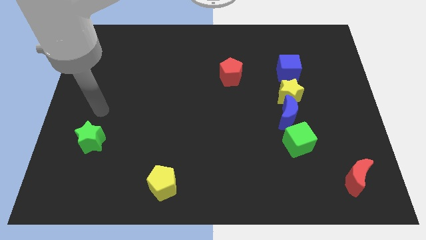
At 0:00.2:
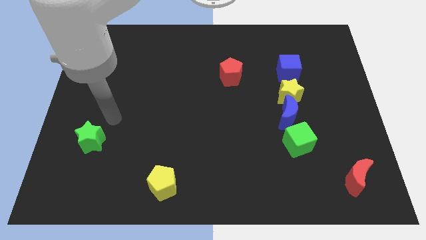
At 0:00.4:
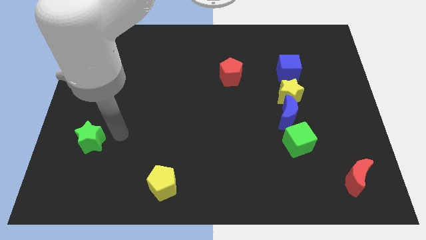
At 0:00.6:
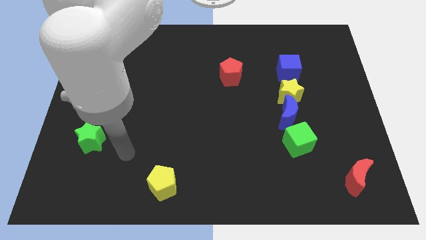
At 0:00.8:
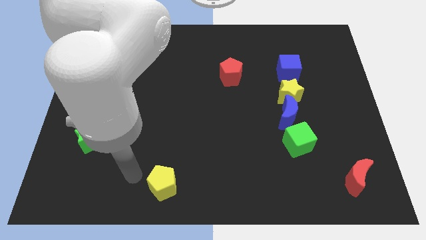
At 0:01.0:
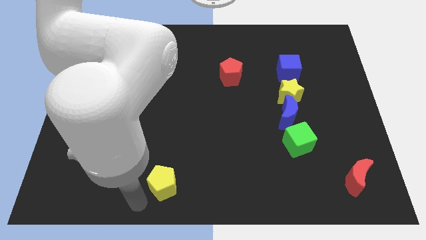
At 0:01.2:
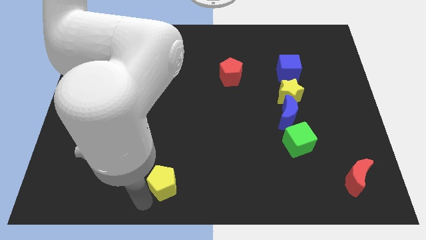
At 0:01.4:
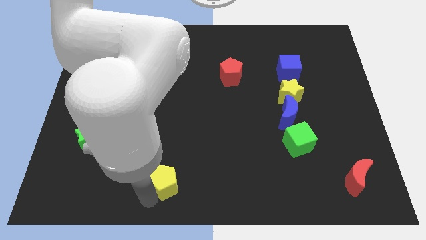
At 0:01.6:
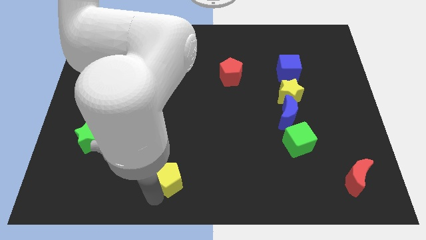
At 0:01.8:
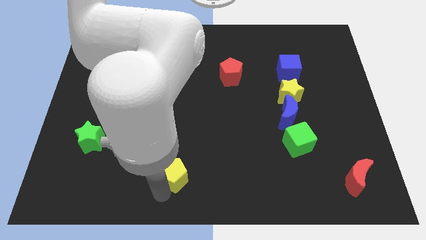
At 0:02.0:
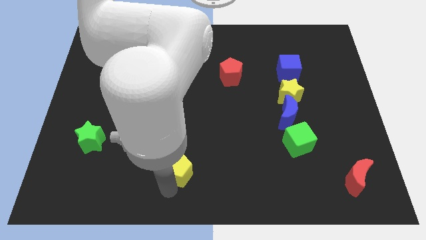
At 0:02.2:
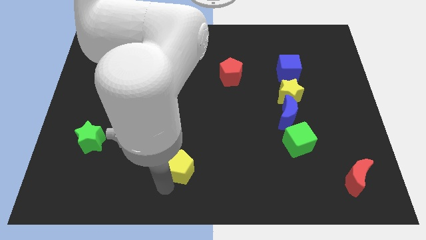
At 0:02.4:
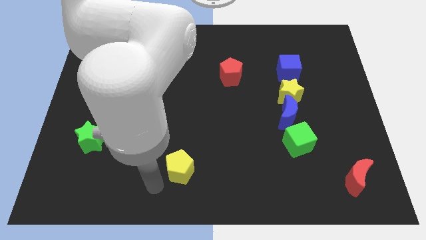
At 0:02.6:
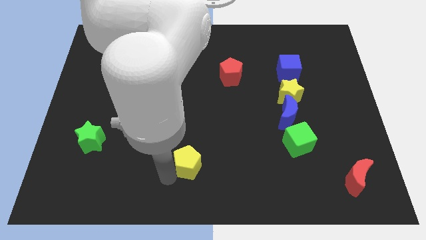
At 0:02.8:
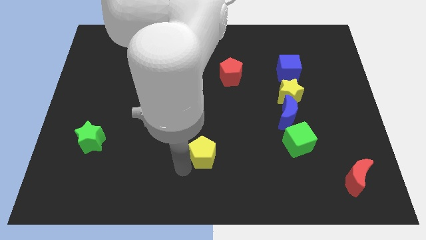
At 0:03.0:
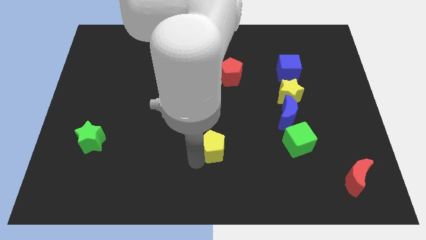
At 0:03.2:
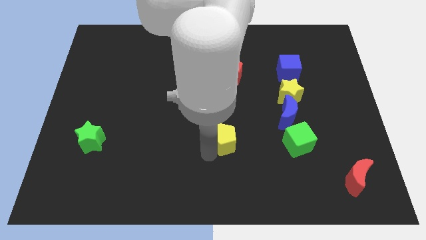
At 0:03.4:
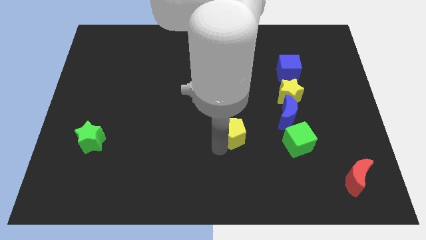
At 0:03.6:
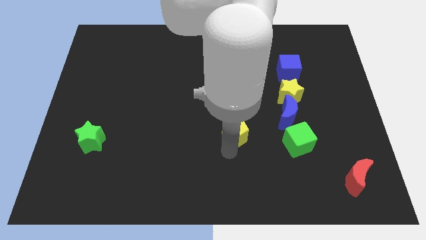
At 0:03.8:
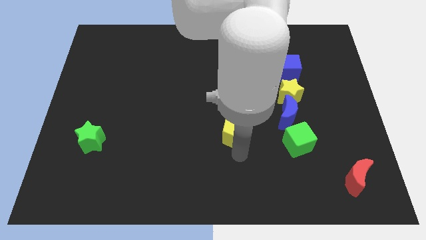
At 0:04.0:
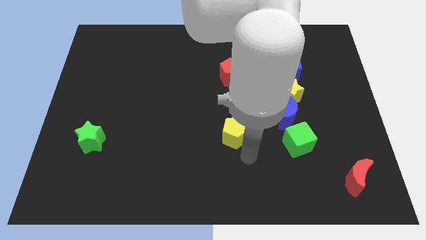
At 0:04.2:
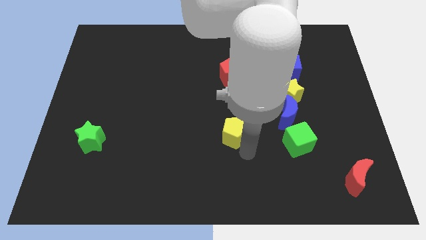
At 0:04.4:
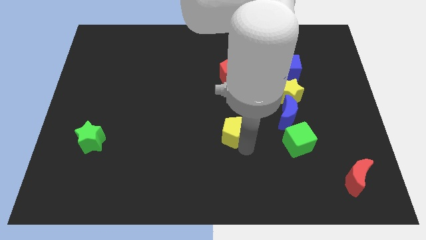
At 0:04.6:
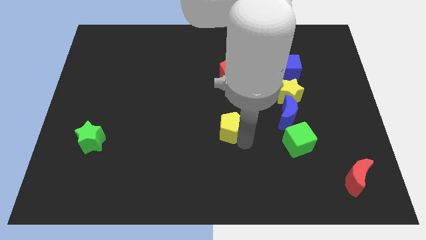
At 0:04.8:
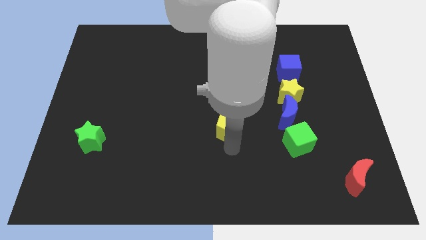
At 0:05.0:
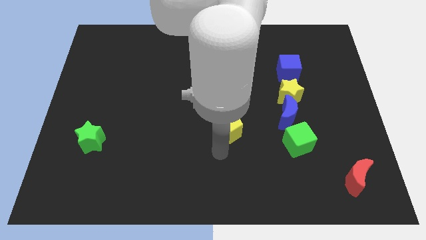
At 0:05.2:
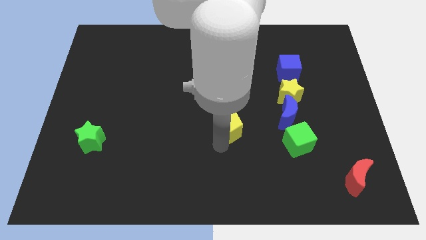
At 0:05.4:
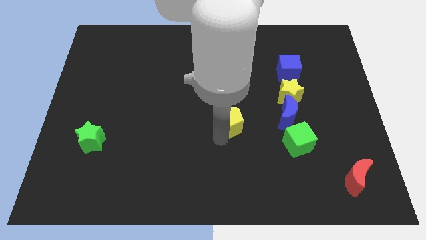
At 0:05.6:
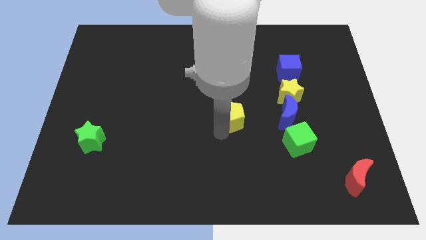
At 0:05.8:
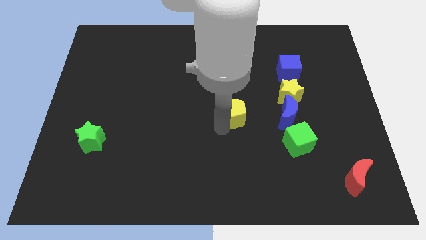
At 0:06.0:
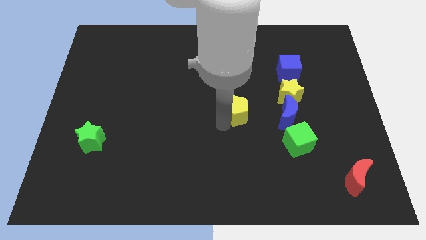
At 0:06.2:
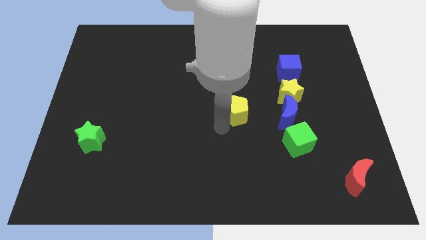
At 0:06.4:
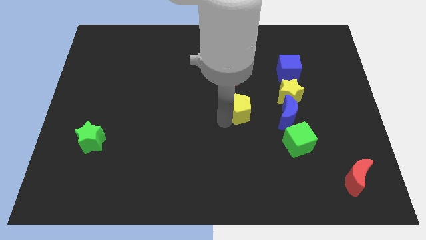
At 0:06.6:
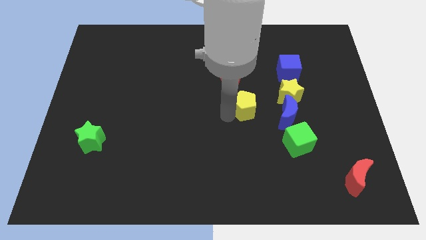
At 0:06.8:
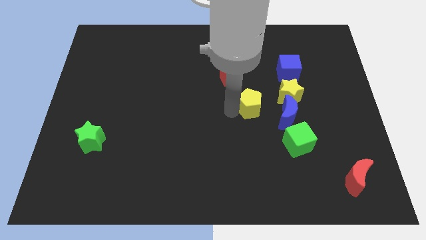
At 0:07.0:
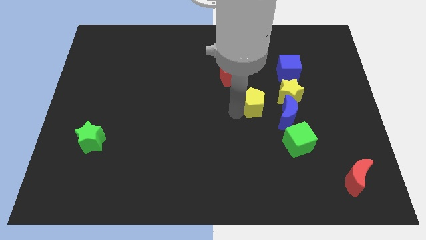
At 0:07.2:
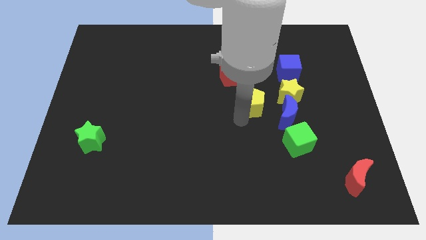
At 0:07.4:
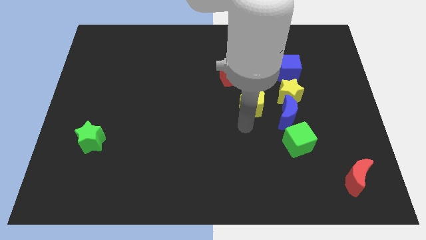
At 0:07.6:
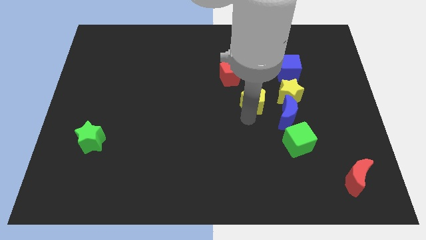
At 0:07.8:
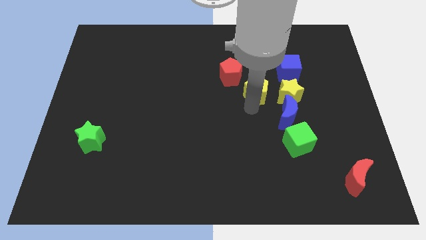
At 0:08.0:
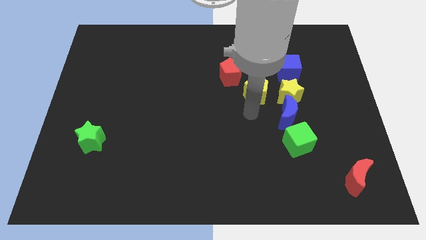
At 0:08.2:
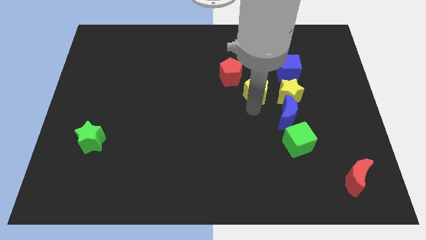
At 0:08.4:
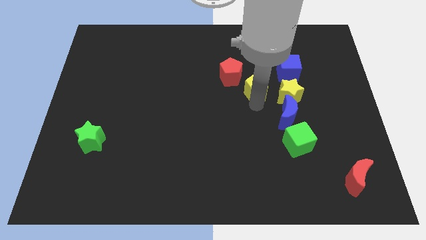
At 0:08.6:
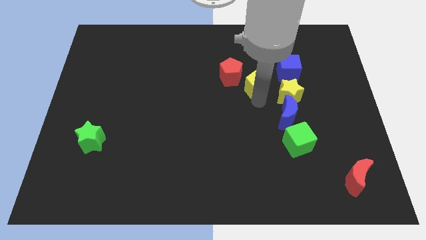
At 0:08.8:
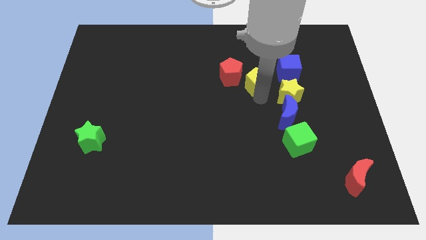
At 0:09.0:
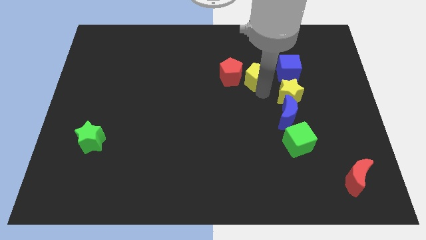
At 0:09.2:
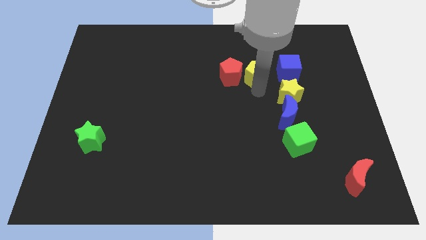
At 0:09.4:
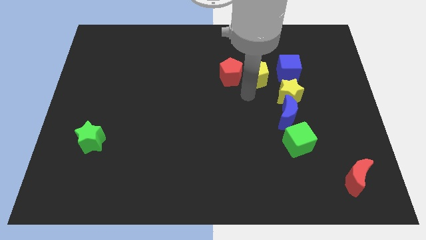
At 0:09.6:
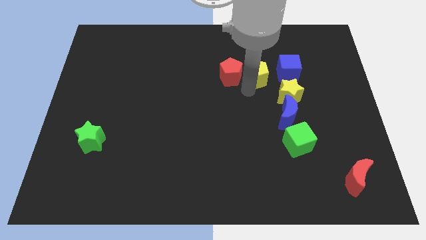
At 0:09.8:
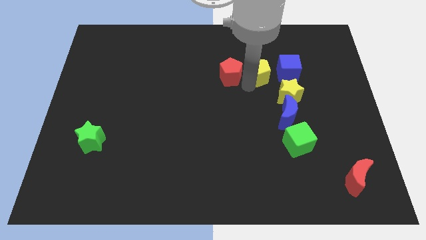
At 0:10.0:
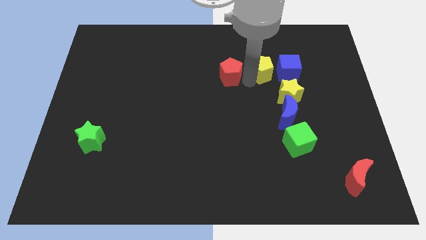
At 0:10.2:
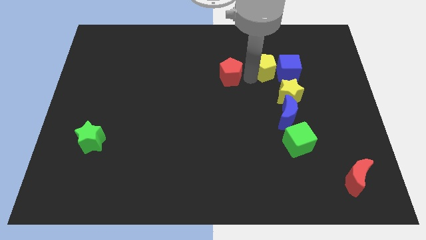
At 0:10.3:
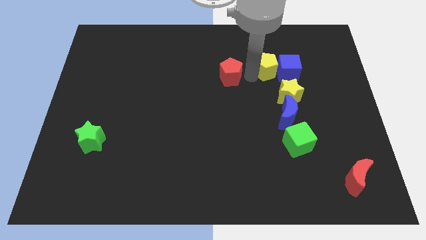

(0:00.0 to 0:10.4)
slide the yellow pentagon above the yellow star

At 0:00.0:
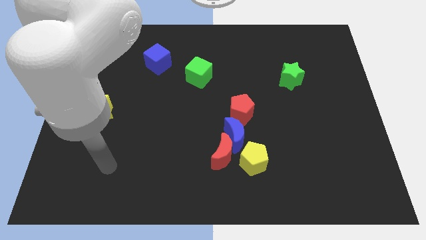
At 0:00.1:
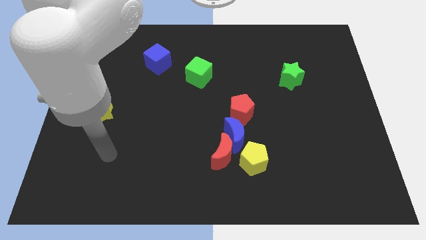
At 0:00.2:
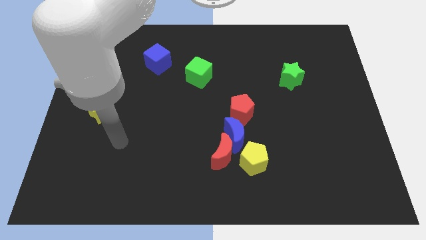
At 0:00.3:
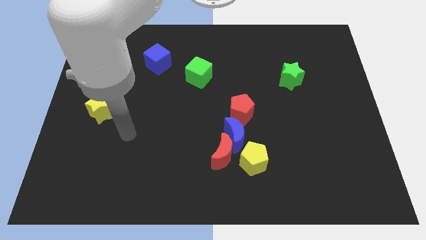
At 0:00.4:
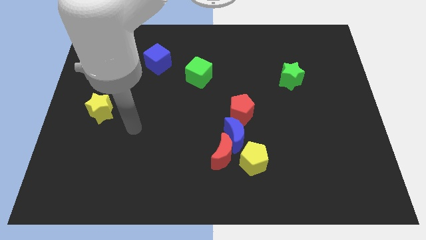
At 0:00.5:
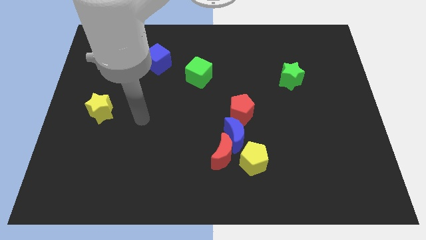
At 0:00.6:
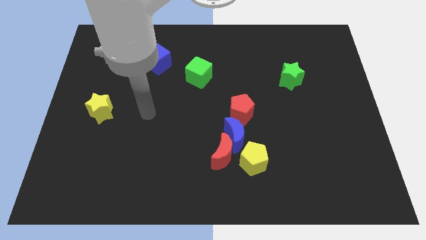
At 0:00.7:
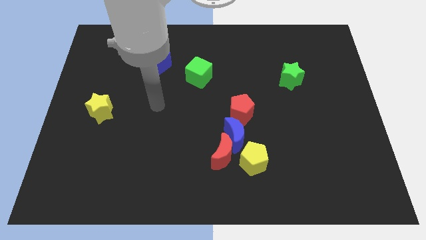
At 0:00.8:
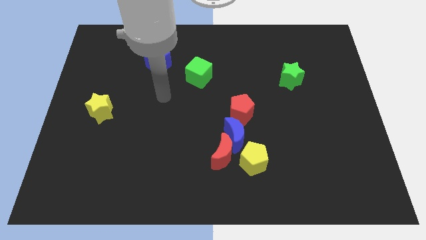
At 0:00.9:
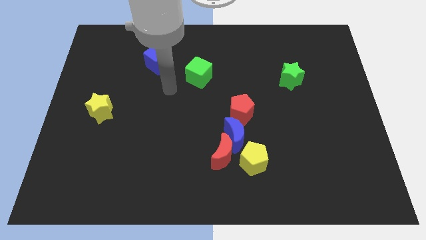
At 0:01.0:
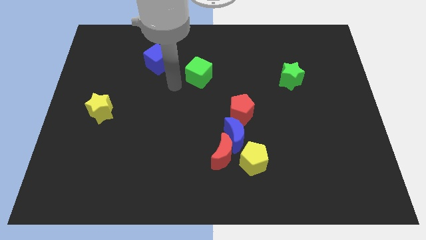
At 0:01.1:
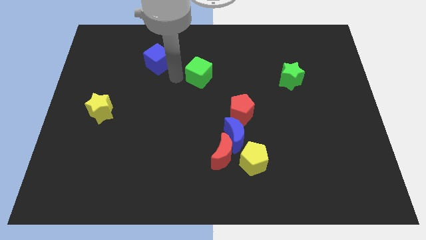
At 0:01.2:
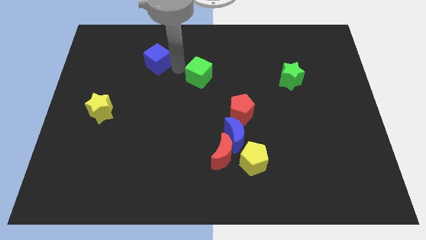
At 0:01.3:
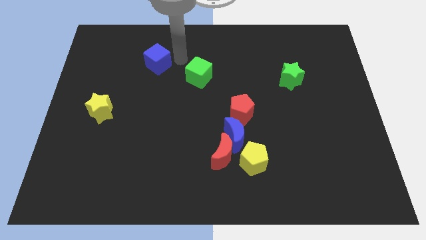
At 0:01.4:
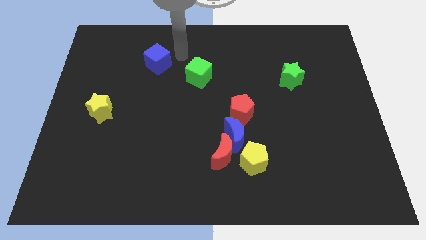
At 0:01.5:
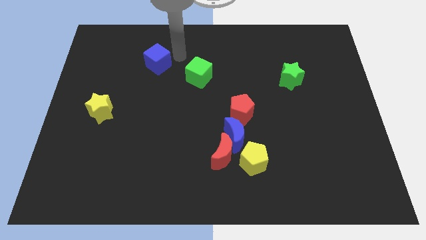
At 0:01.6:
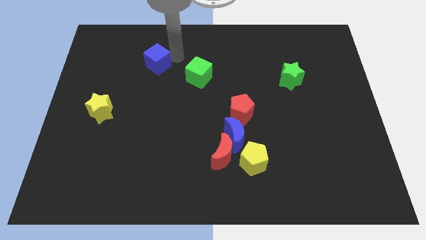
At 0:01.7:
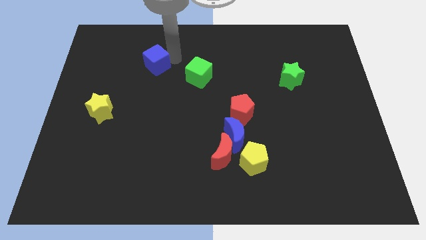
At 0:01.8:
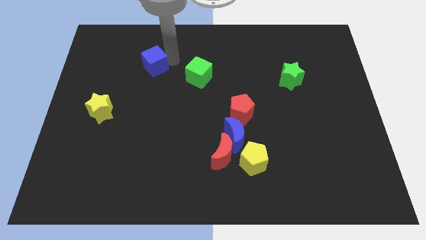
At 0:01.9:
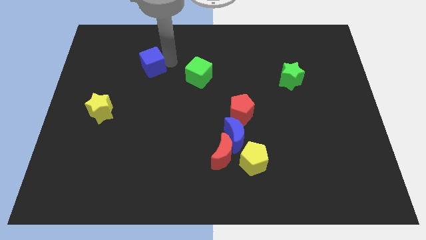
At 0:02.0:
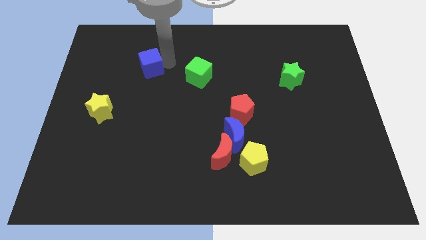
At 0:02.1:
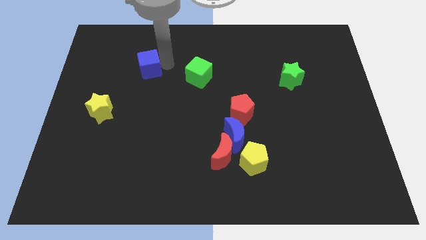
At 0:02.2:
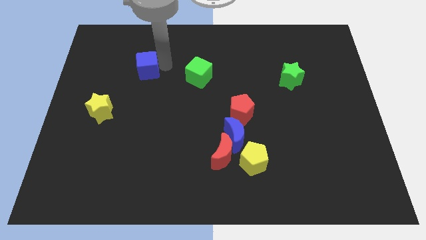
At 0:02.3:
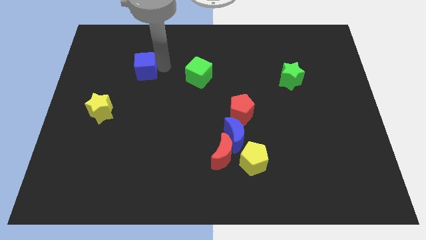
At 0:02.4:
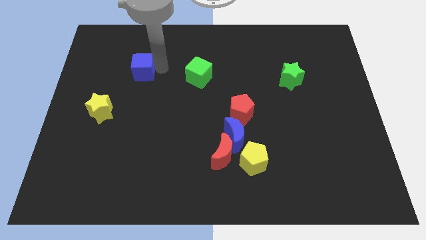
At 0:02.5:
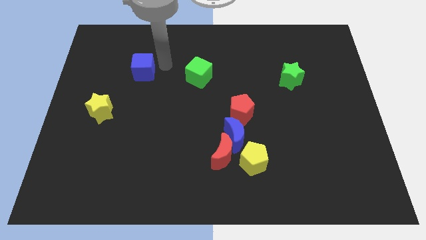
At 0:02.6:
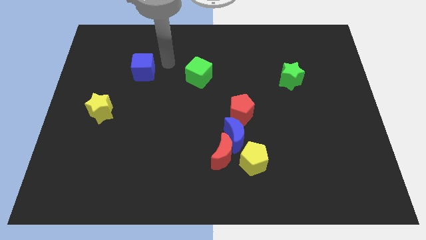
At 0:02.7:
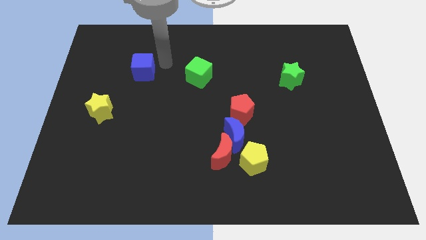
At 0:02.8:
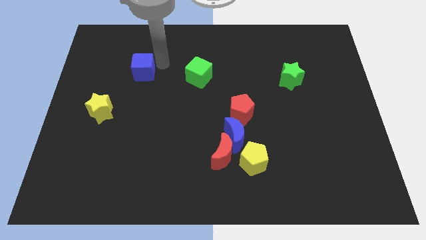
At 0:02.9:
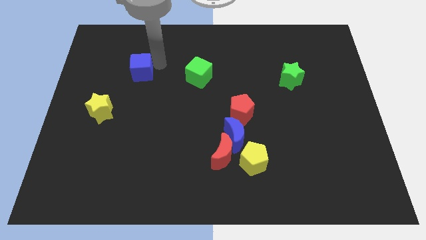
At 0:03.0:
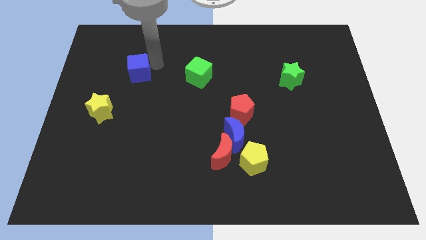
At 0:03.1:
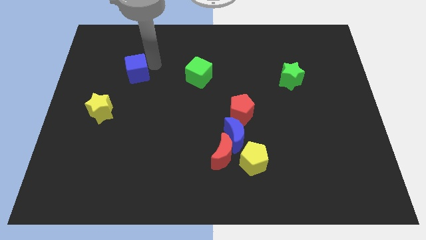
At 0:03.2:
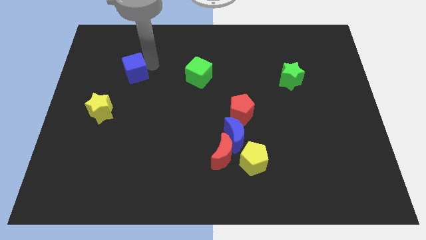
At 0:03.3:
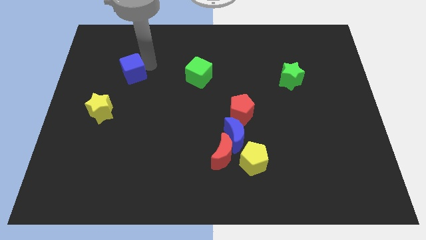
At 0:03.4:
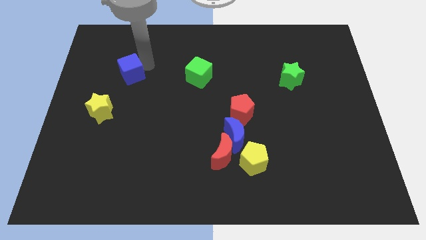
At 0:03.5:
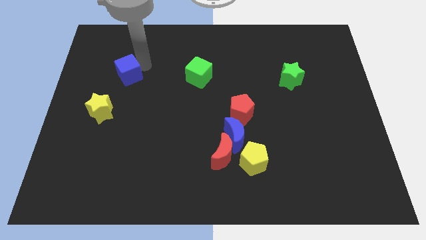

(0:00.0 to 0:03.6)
slide the blue cube above the yellow star
